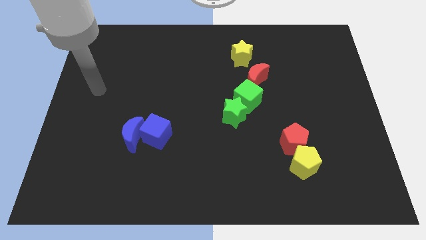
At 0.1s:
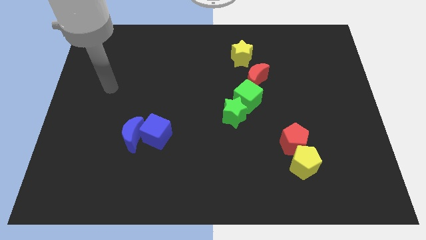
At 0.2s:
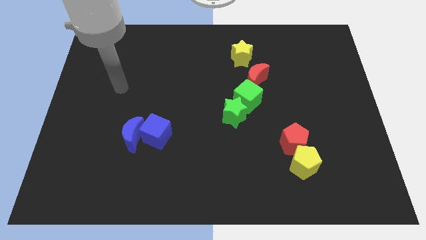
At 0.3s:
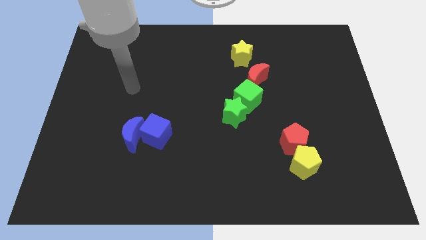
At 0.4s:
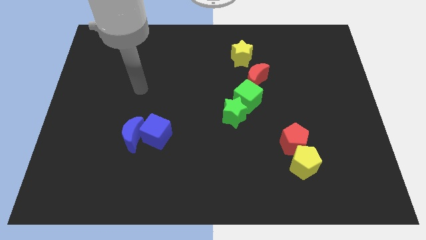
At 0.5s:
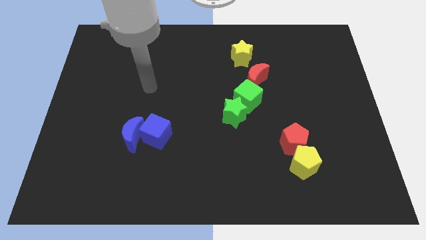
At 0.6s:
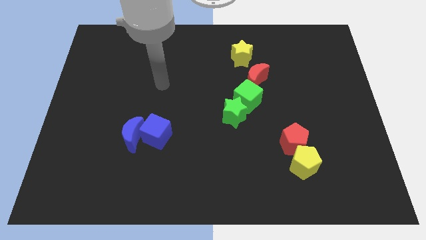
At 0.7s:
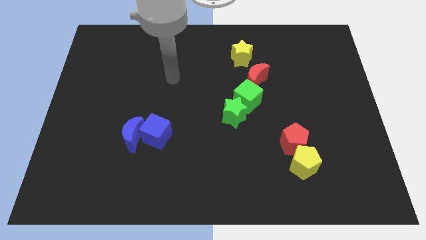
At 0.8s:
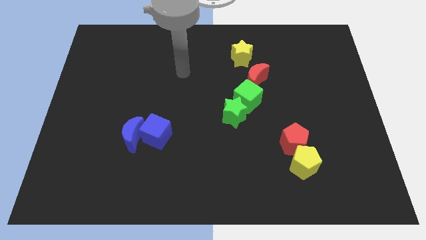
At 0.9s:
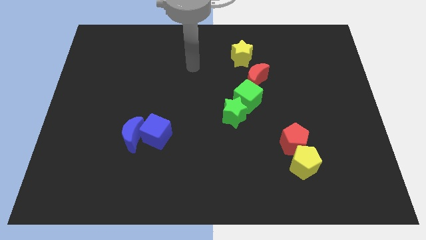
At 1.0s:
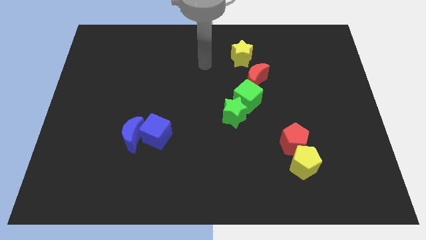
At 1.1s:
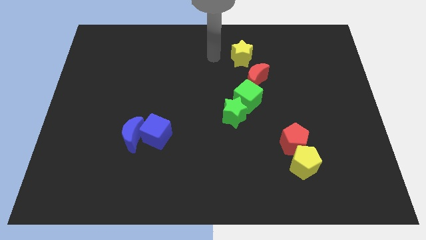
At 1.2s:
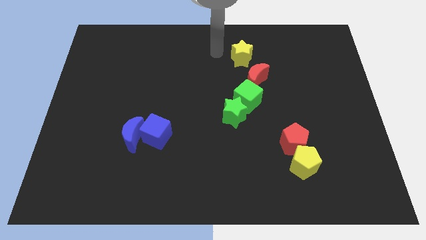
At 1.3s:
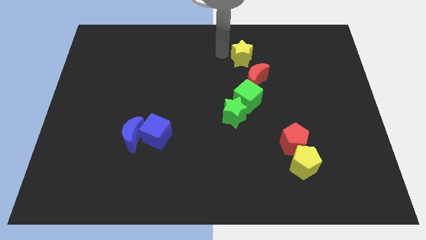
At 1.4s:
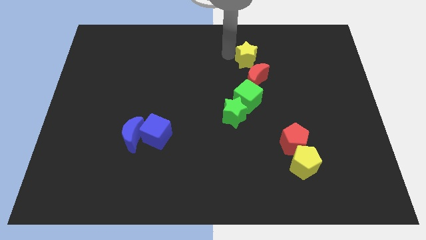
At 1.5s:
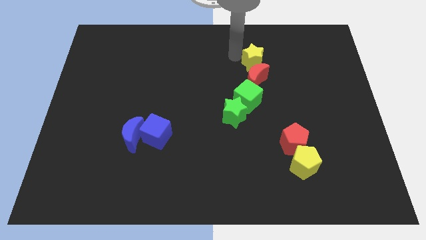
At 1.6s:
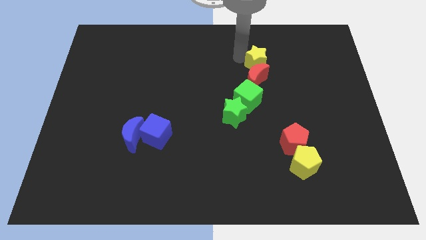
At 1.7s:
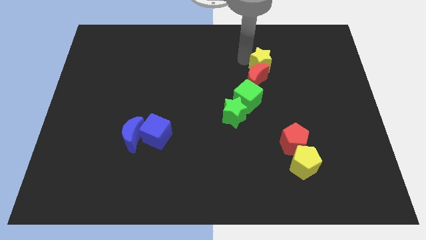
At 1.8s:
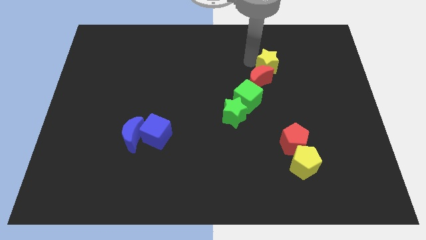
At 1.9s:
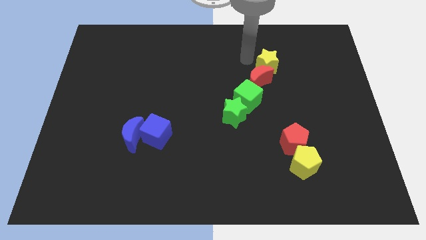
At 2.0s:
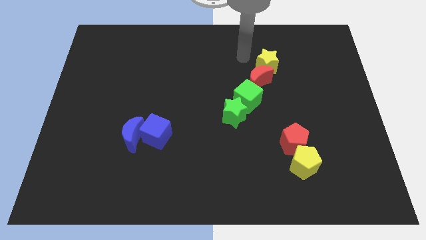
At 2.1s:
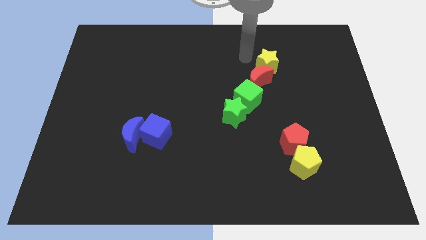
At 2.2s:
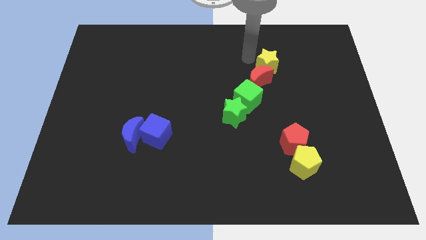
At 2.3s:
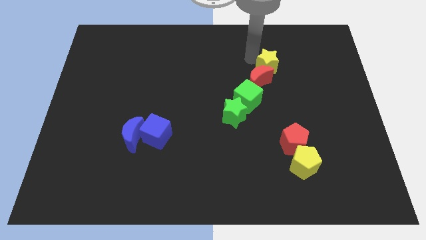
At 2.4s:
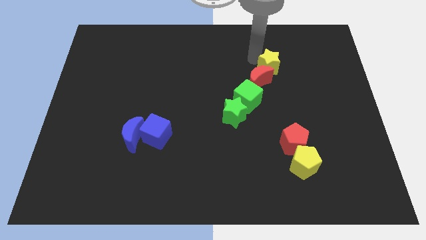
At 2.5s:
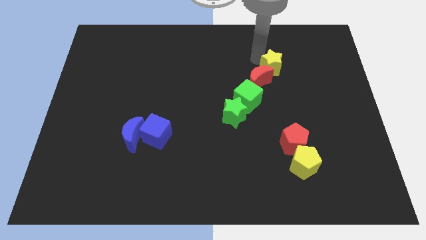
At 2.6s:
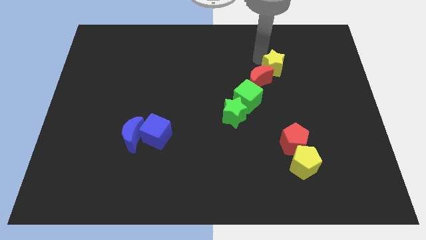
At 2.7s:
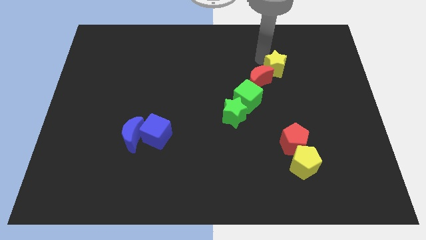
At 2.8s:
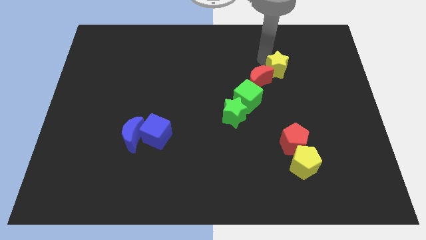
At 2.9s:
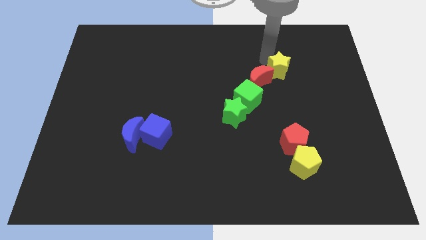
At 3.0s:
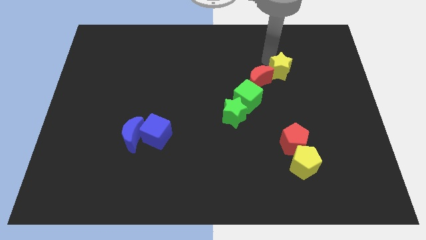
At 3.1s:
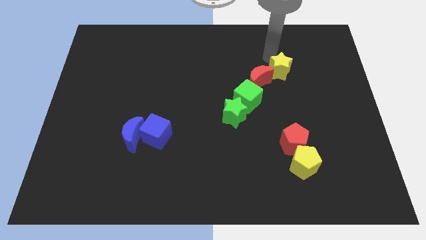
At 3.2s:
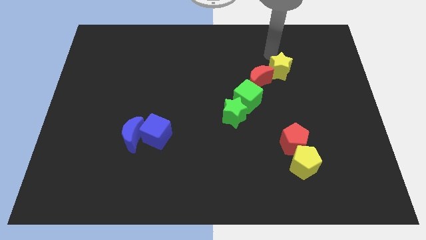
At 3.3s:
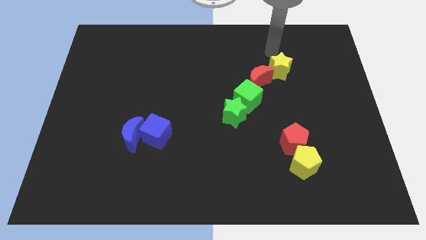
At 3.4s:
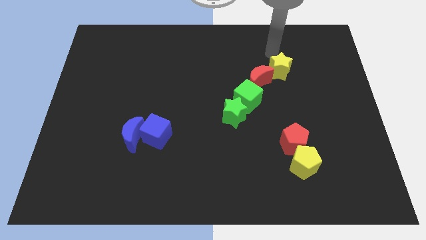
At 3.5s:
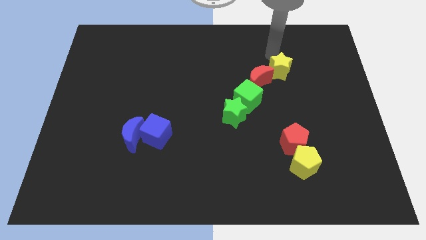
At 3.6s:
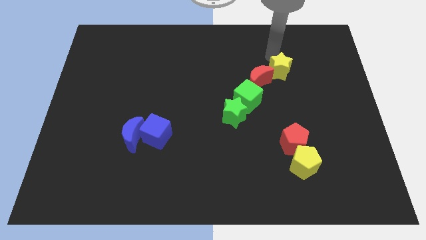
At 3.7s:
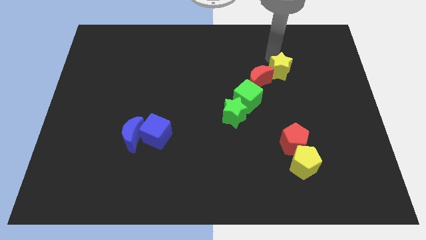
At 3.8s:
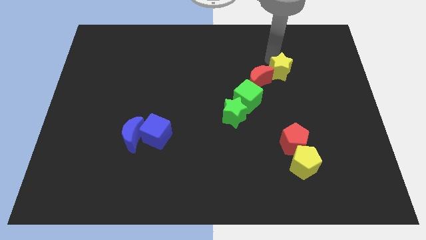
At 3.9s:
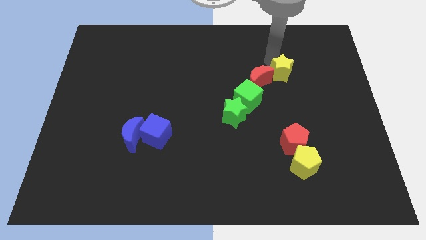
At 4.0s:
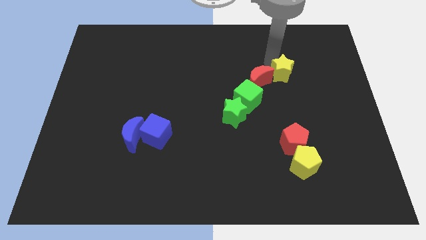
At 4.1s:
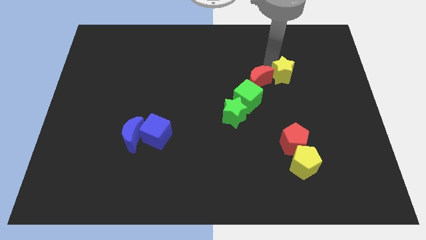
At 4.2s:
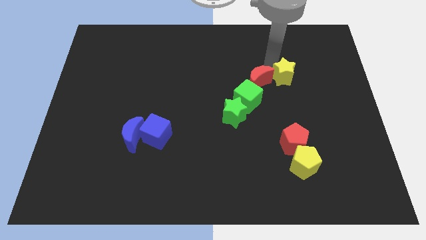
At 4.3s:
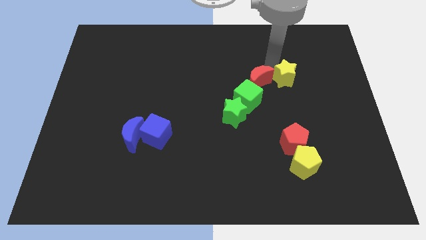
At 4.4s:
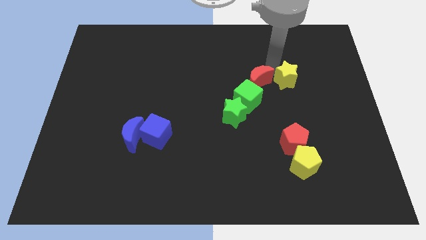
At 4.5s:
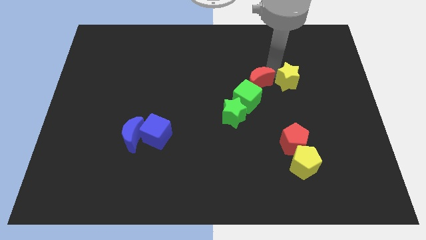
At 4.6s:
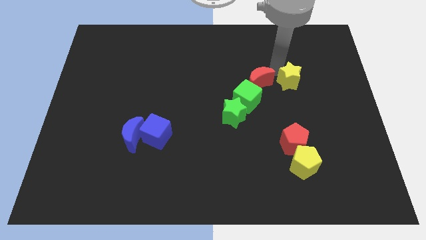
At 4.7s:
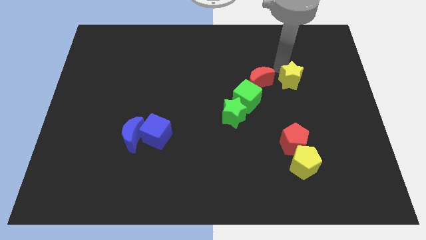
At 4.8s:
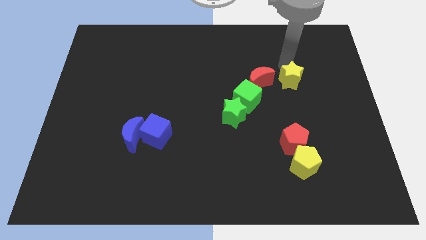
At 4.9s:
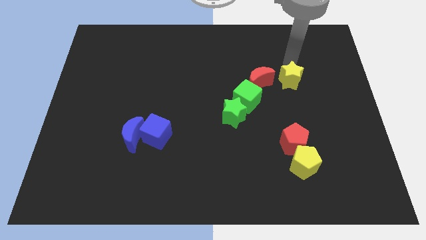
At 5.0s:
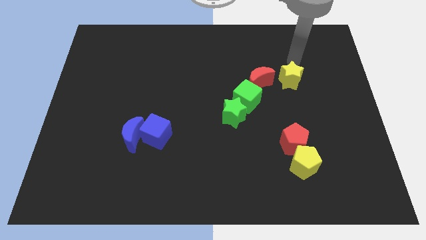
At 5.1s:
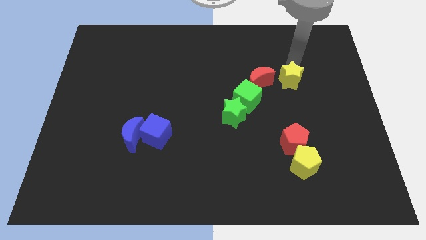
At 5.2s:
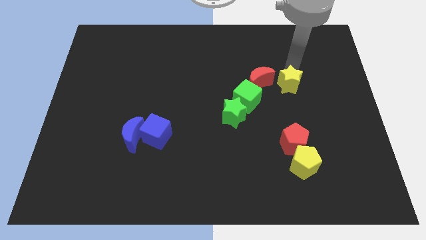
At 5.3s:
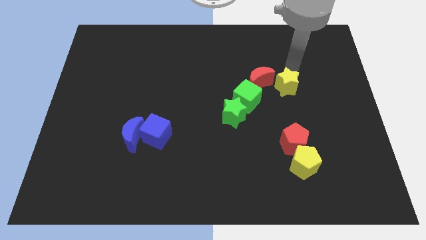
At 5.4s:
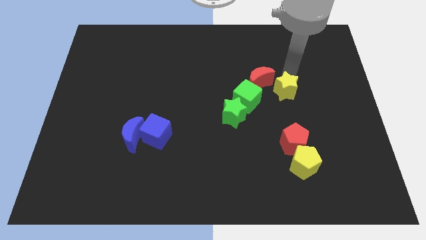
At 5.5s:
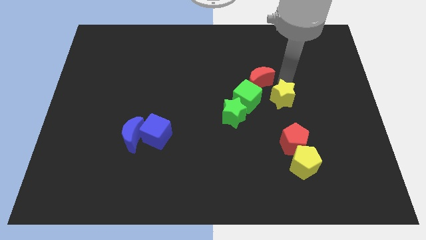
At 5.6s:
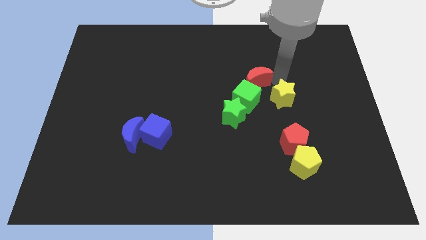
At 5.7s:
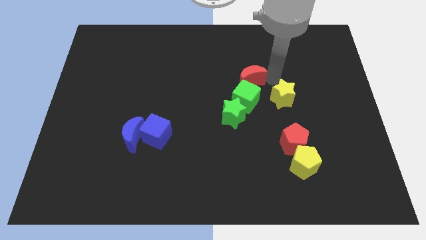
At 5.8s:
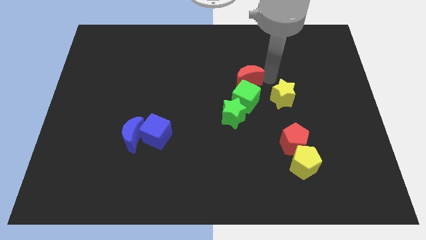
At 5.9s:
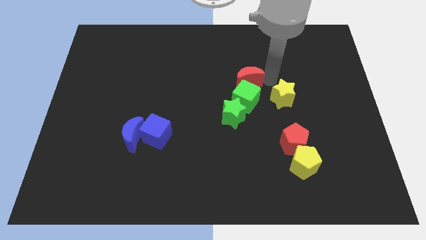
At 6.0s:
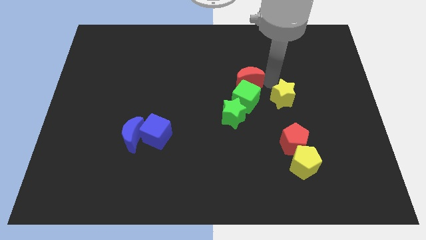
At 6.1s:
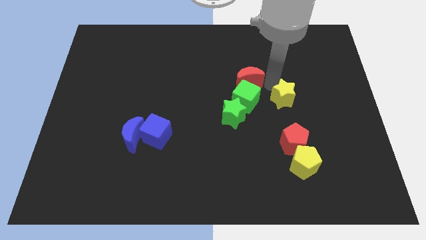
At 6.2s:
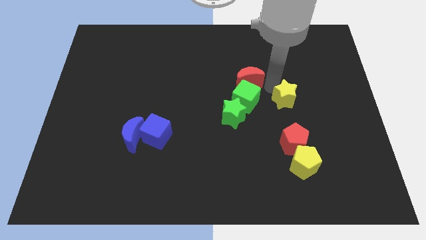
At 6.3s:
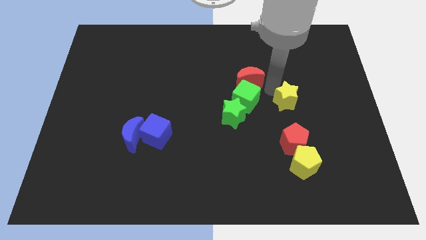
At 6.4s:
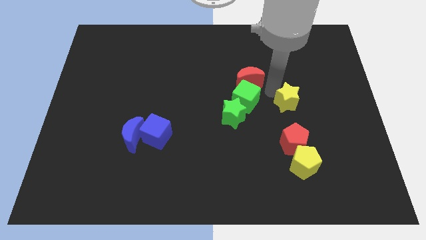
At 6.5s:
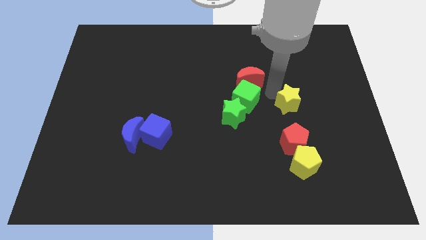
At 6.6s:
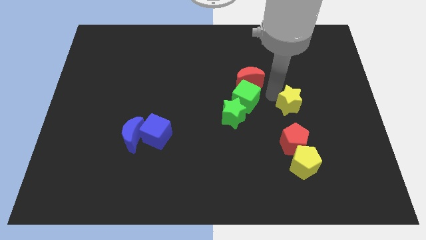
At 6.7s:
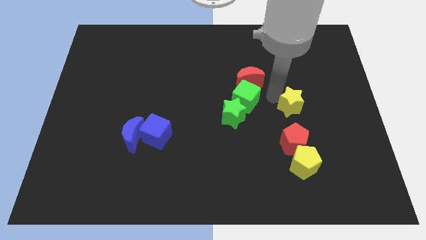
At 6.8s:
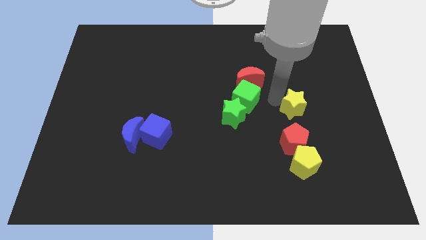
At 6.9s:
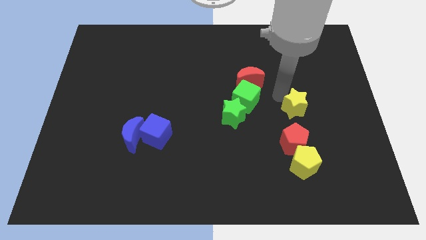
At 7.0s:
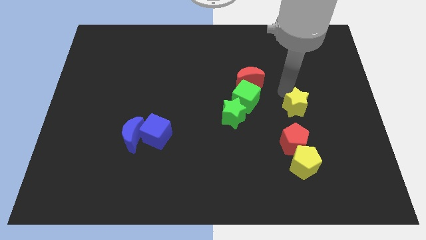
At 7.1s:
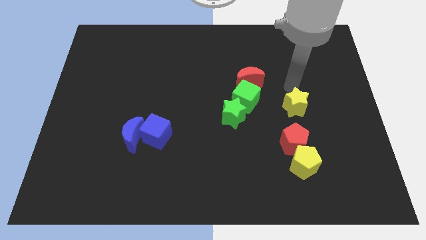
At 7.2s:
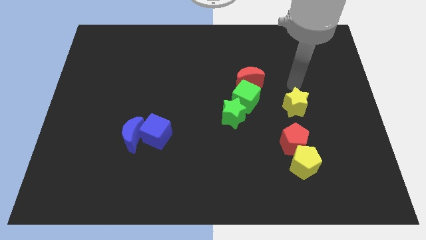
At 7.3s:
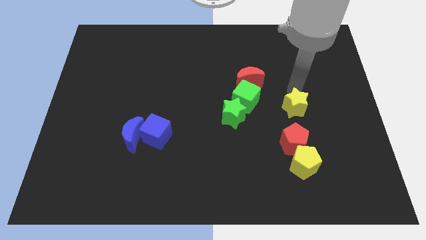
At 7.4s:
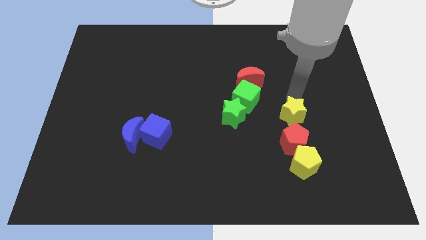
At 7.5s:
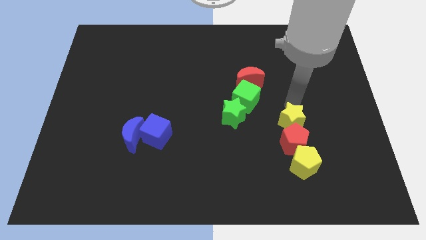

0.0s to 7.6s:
slide the yellow star next to the red pentagon
